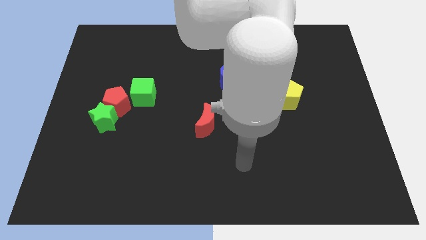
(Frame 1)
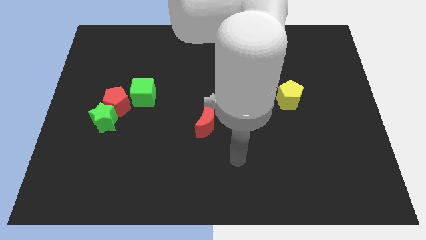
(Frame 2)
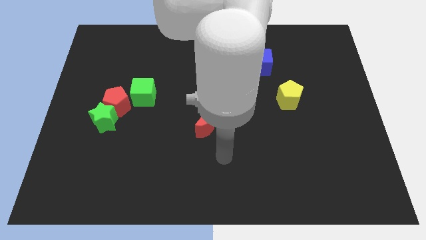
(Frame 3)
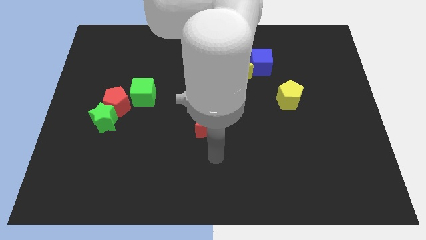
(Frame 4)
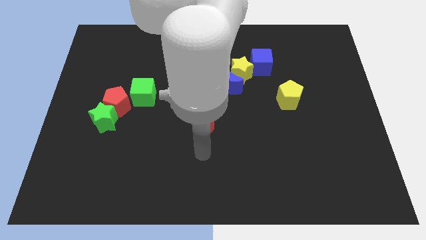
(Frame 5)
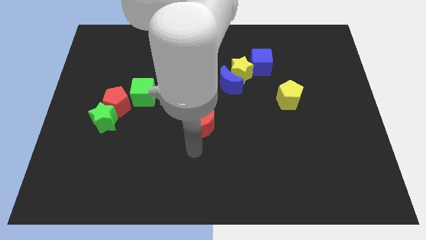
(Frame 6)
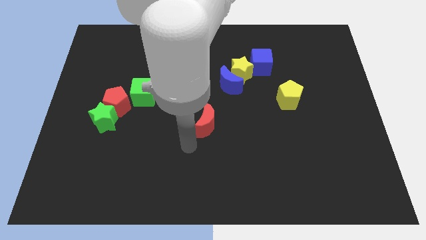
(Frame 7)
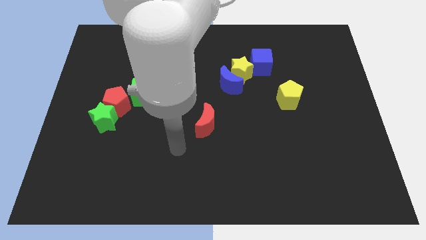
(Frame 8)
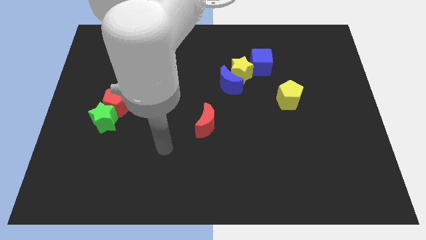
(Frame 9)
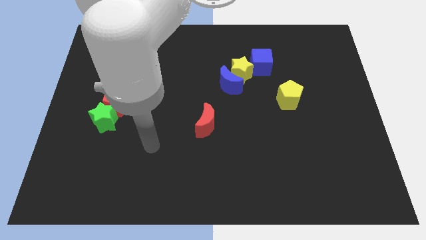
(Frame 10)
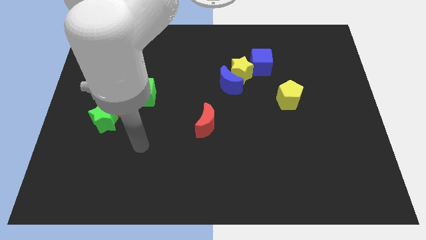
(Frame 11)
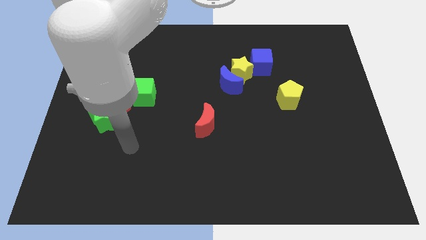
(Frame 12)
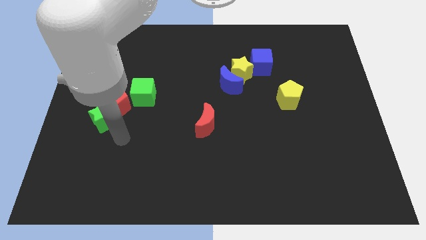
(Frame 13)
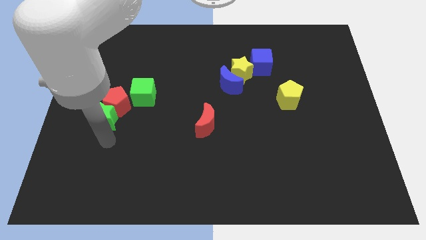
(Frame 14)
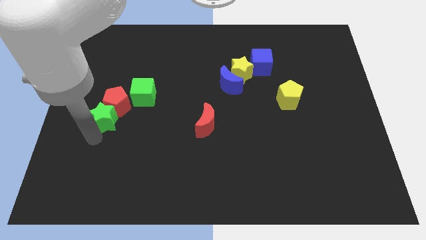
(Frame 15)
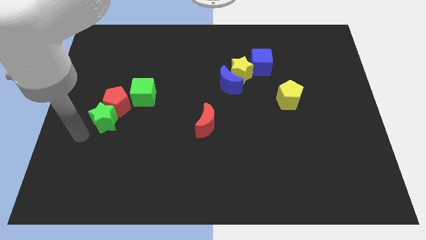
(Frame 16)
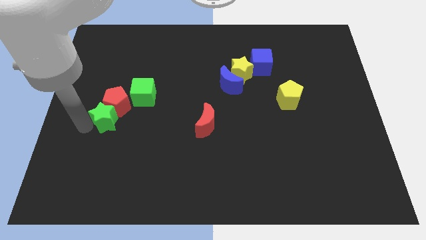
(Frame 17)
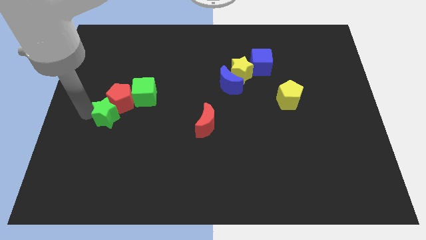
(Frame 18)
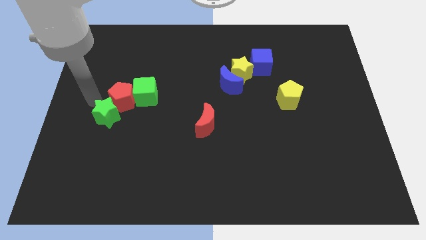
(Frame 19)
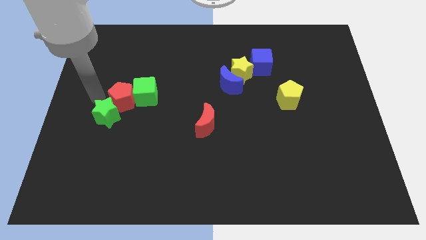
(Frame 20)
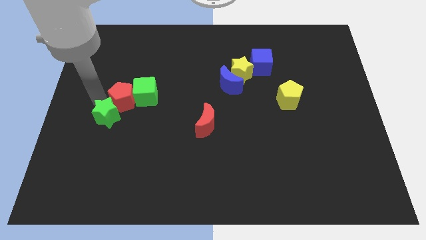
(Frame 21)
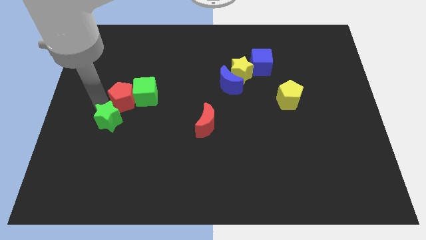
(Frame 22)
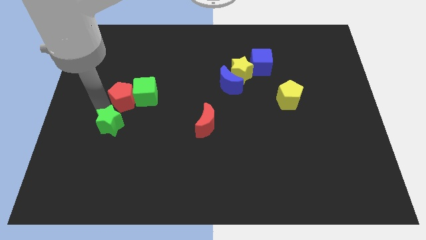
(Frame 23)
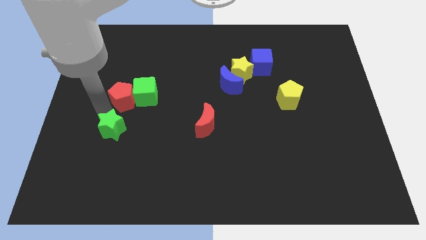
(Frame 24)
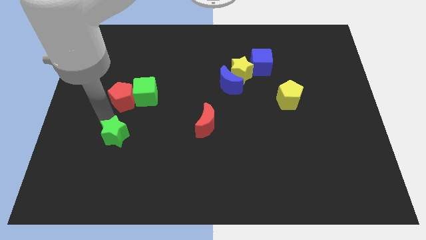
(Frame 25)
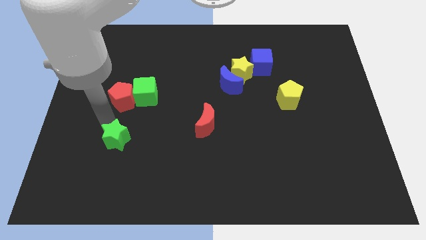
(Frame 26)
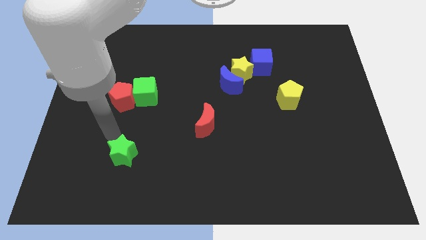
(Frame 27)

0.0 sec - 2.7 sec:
slide the green star a bit downwards and right

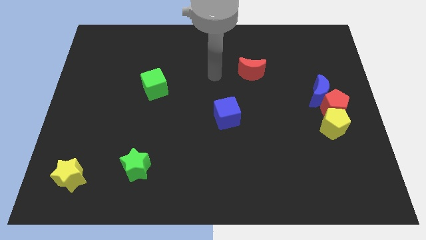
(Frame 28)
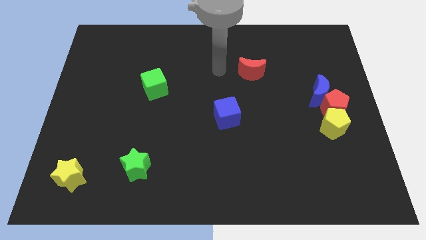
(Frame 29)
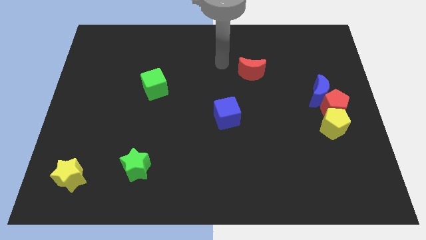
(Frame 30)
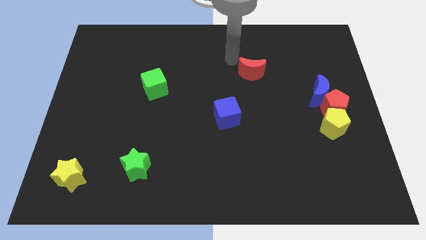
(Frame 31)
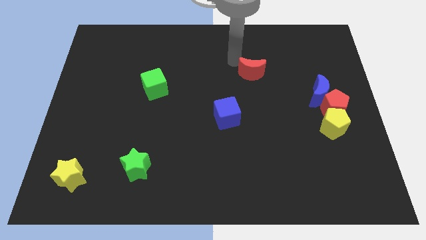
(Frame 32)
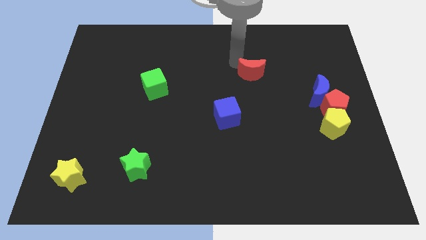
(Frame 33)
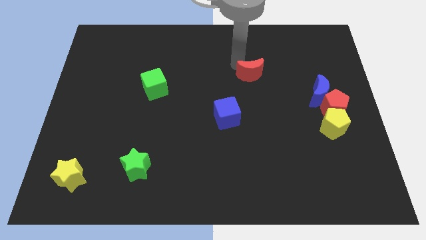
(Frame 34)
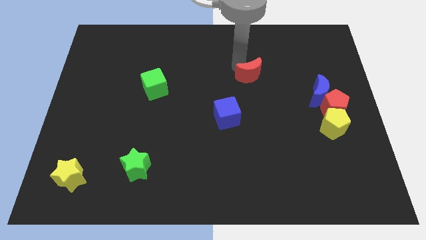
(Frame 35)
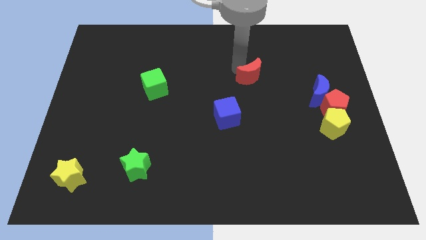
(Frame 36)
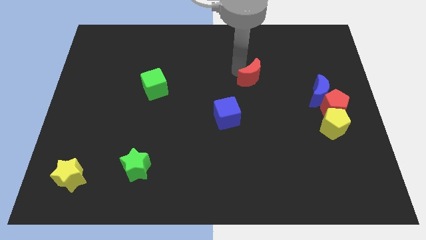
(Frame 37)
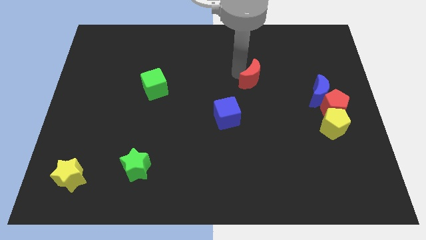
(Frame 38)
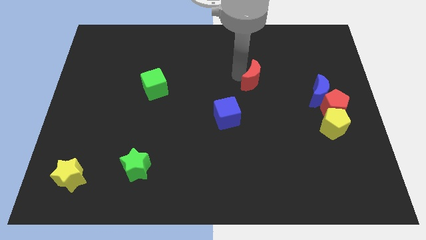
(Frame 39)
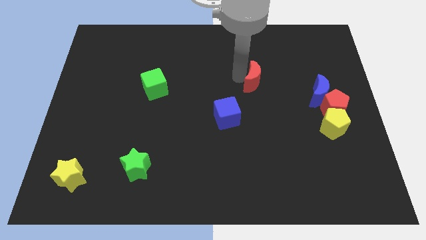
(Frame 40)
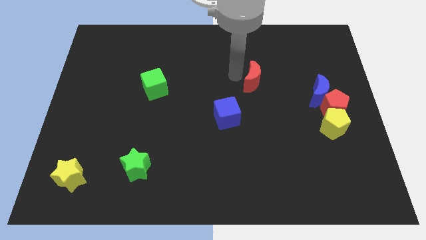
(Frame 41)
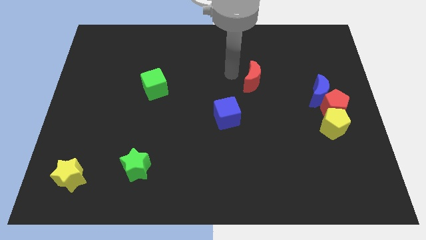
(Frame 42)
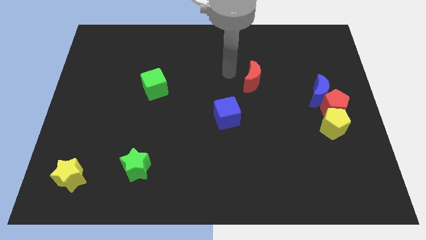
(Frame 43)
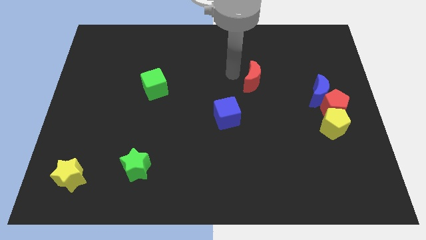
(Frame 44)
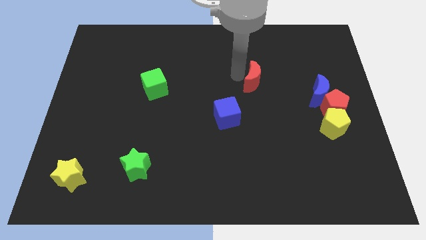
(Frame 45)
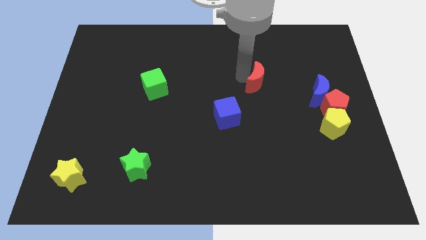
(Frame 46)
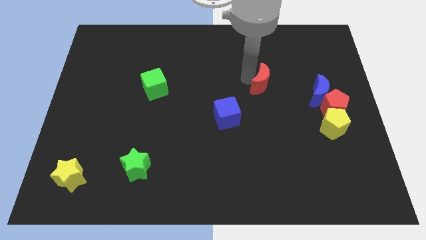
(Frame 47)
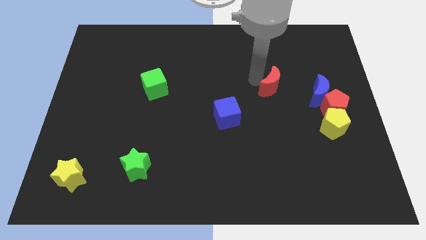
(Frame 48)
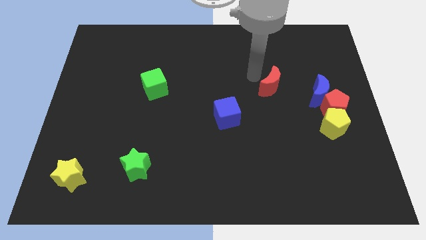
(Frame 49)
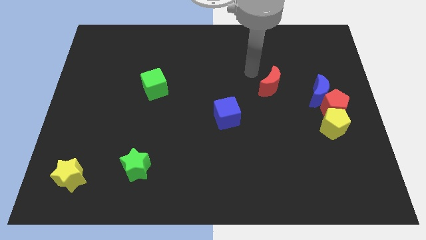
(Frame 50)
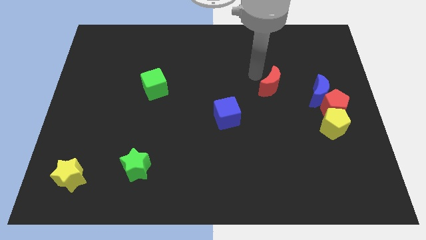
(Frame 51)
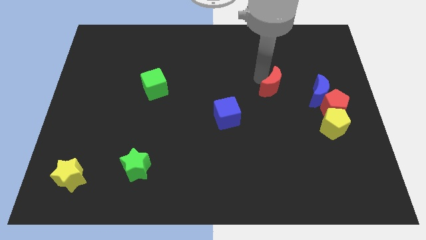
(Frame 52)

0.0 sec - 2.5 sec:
slightly move the red moon downwards and then right

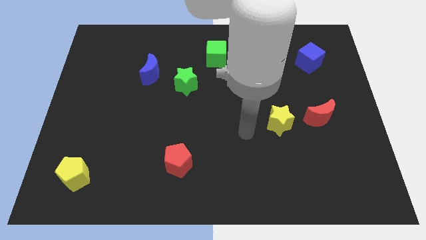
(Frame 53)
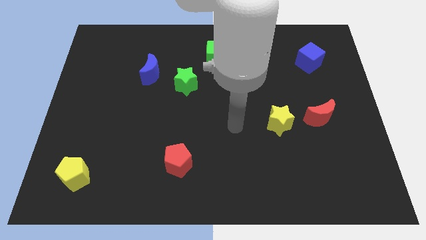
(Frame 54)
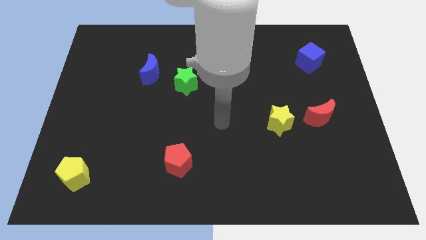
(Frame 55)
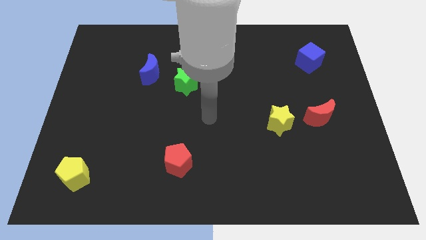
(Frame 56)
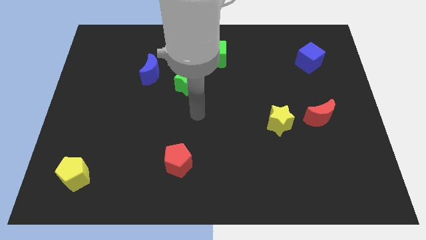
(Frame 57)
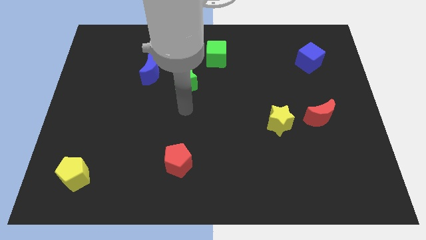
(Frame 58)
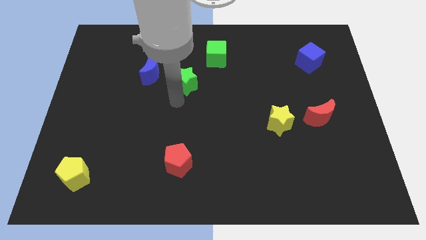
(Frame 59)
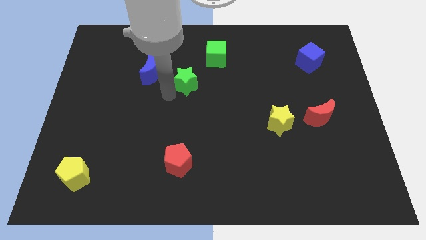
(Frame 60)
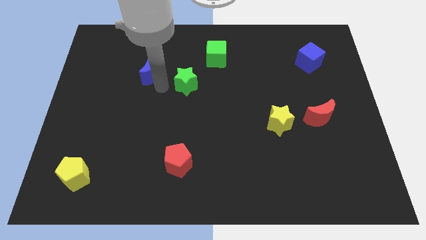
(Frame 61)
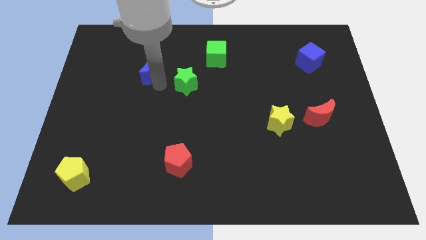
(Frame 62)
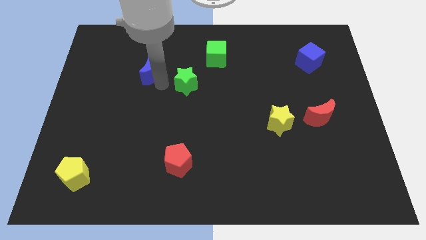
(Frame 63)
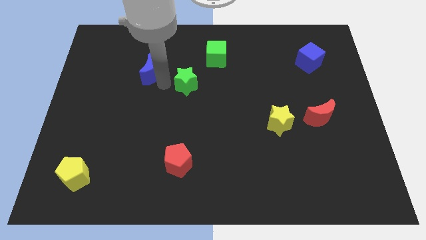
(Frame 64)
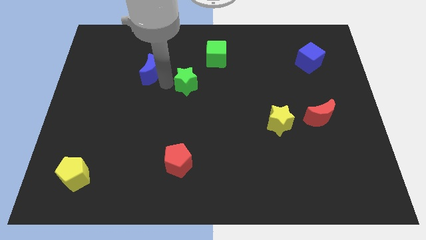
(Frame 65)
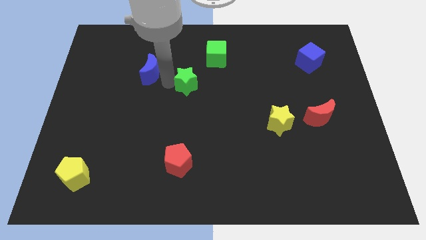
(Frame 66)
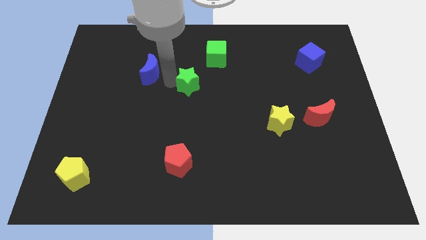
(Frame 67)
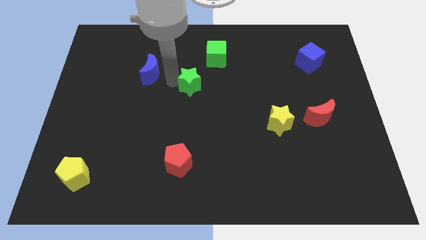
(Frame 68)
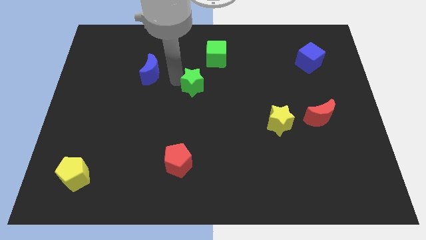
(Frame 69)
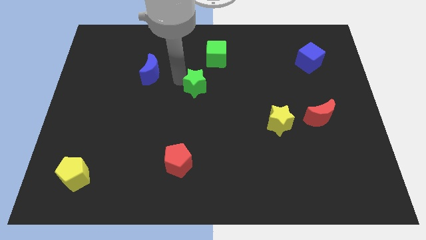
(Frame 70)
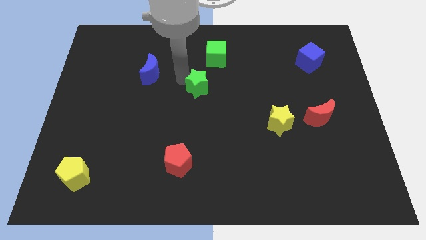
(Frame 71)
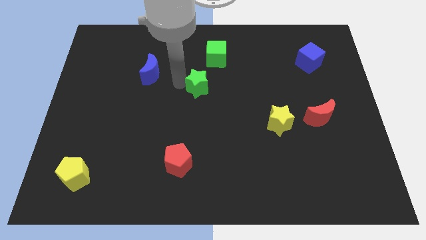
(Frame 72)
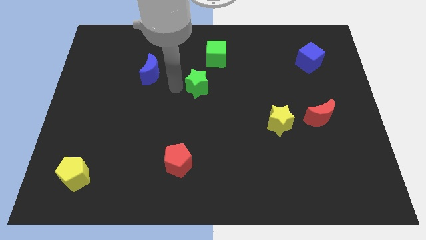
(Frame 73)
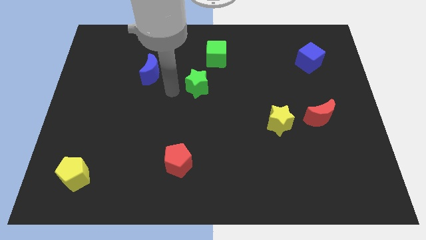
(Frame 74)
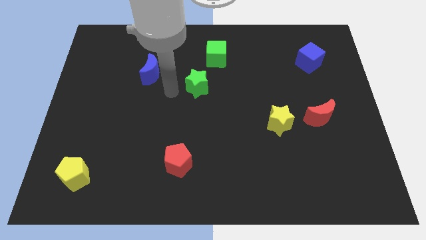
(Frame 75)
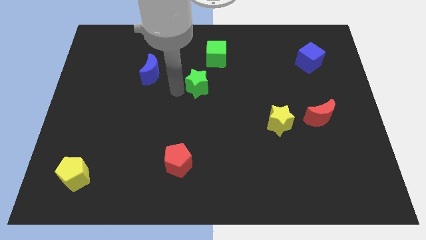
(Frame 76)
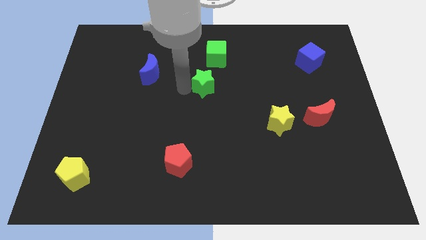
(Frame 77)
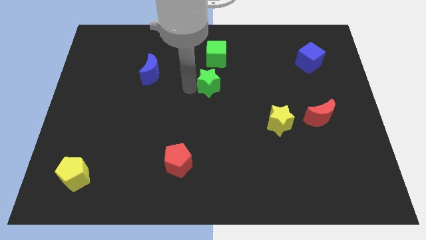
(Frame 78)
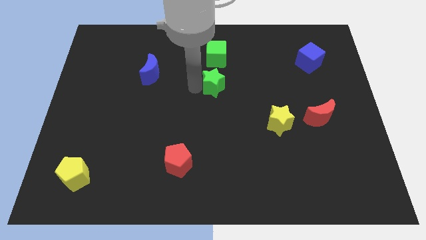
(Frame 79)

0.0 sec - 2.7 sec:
slightly move the green star to the right

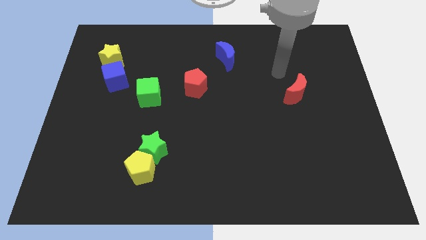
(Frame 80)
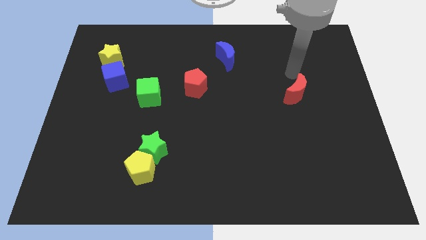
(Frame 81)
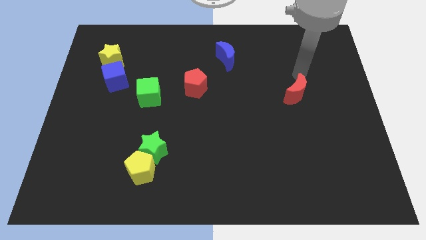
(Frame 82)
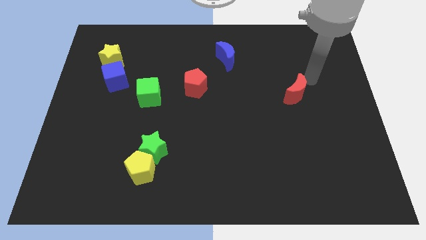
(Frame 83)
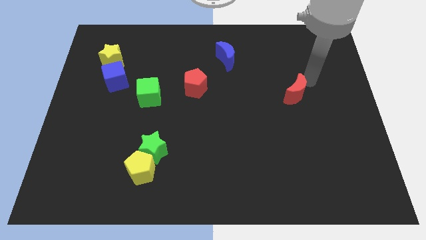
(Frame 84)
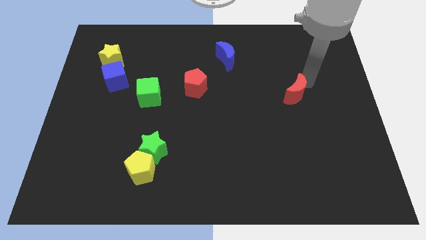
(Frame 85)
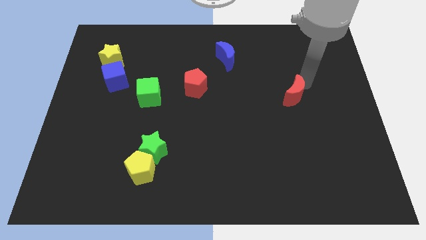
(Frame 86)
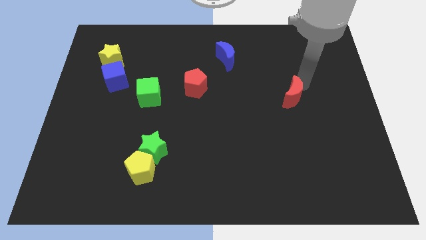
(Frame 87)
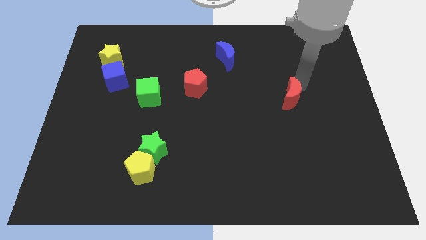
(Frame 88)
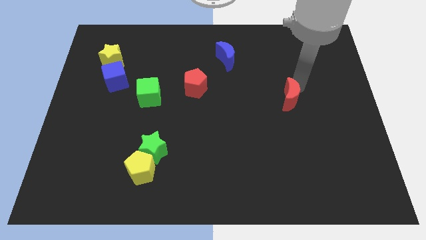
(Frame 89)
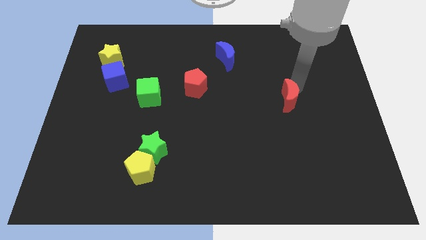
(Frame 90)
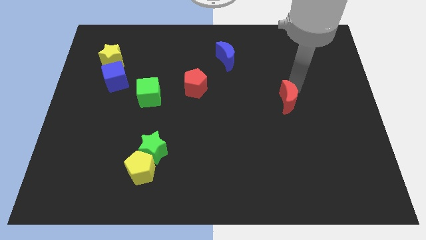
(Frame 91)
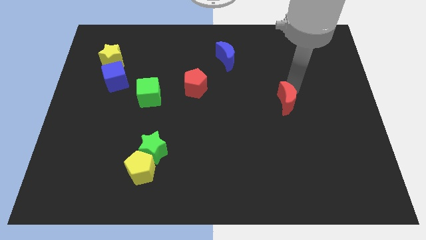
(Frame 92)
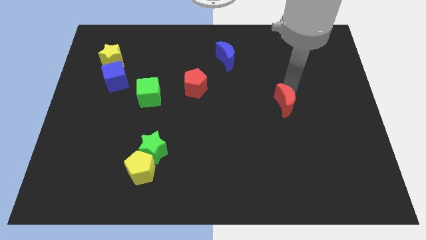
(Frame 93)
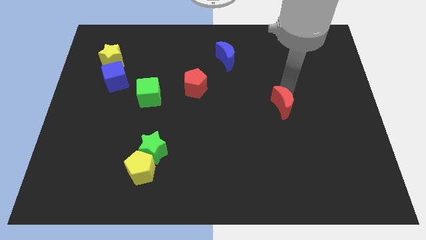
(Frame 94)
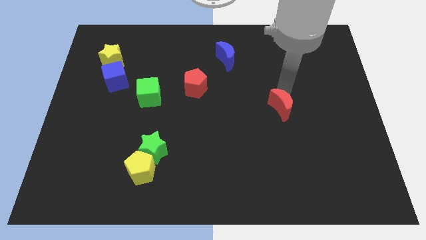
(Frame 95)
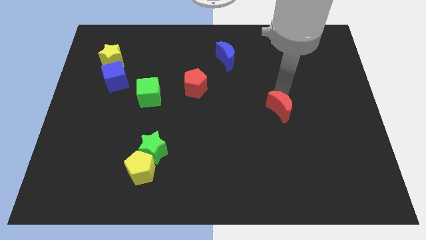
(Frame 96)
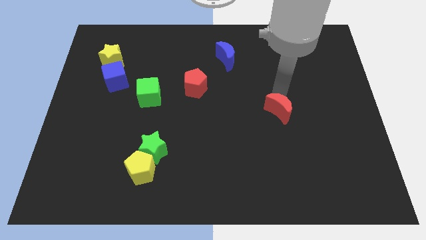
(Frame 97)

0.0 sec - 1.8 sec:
slide the red moon down and to the left diagonally somewhat
